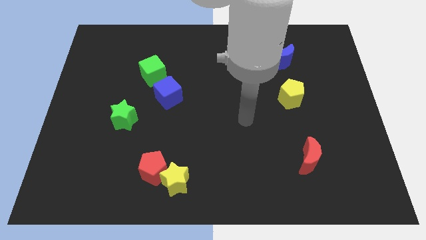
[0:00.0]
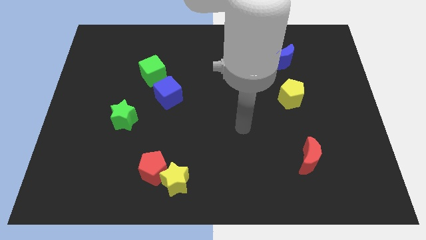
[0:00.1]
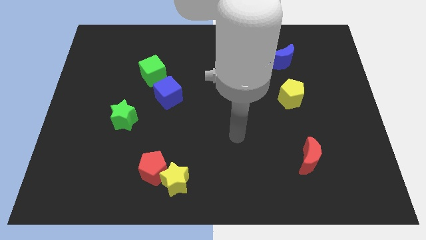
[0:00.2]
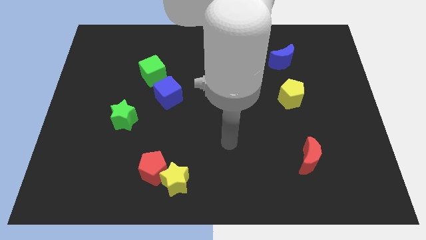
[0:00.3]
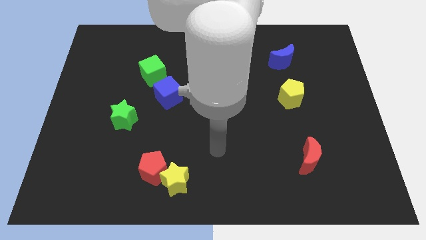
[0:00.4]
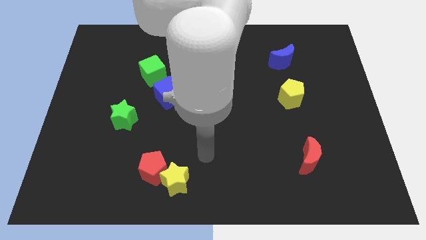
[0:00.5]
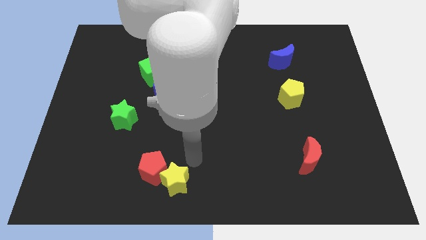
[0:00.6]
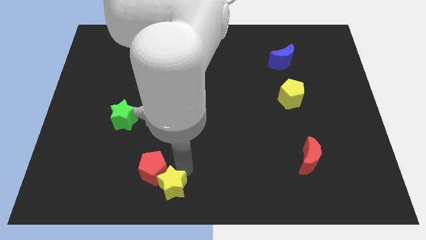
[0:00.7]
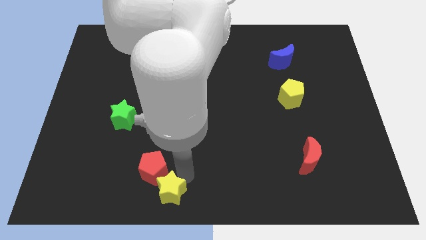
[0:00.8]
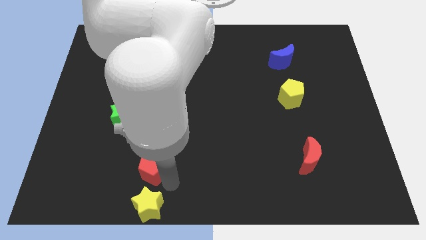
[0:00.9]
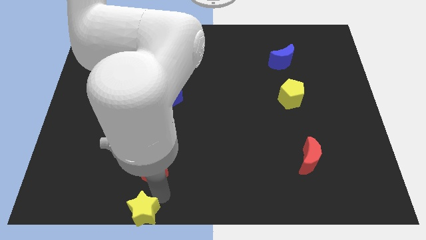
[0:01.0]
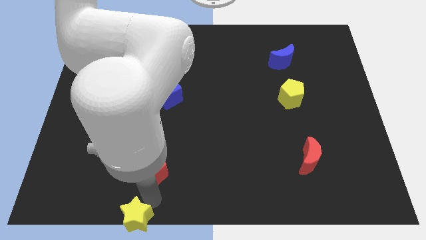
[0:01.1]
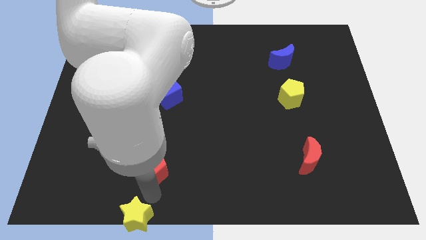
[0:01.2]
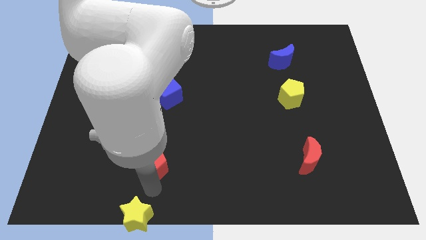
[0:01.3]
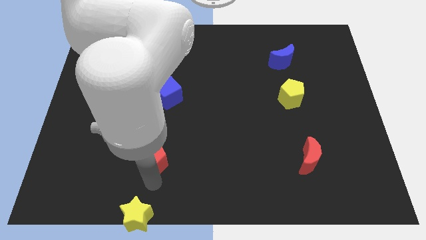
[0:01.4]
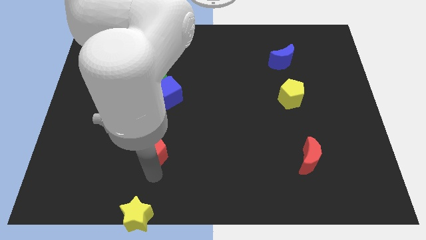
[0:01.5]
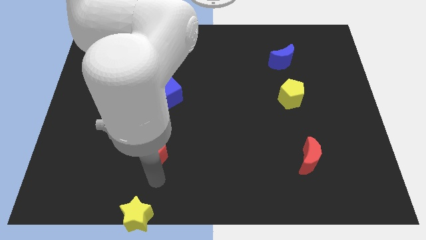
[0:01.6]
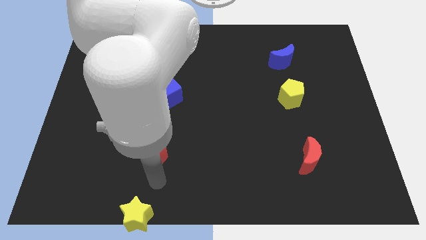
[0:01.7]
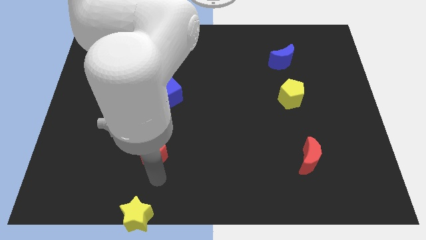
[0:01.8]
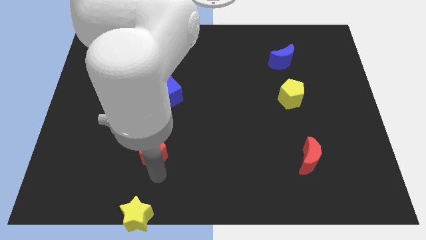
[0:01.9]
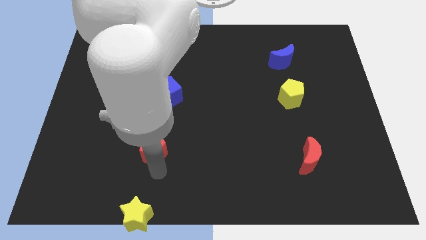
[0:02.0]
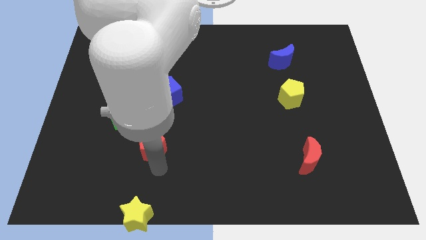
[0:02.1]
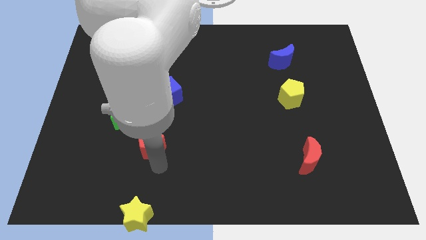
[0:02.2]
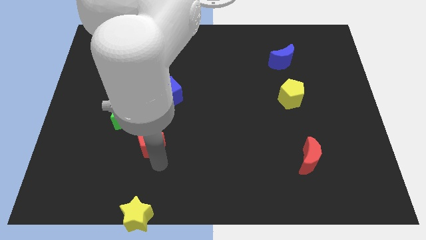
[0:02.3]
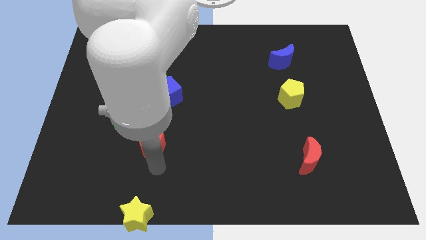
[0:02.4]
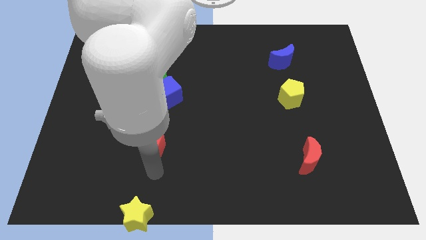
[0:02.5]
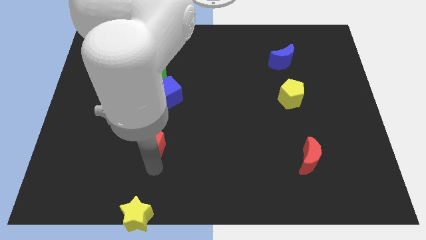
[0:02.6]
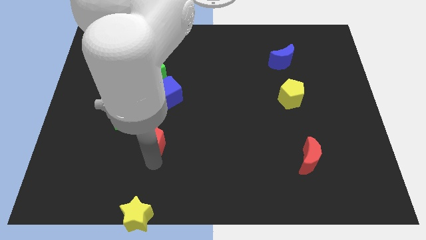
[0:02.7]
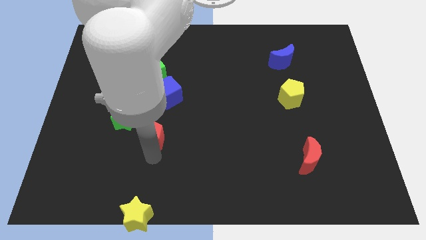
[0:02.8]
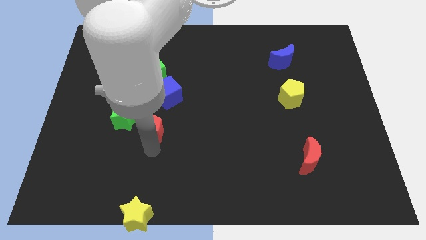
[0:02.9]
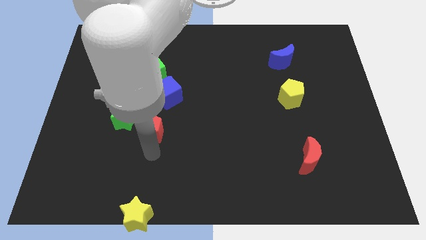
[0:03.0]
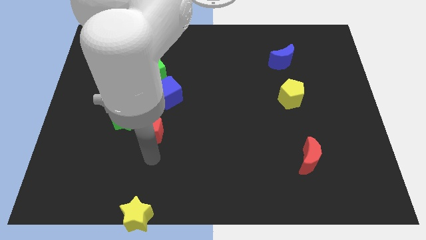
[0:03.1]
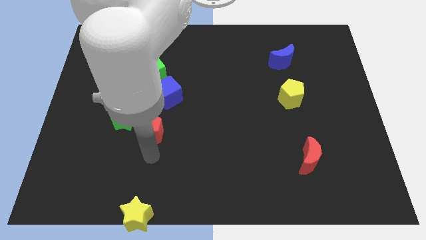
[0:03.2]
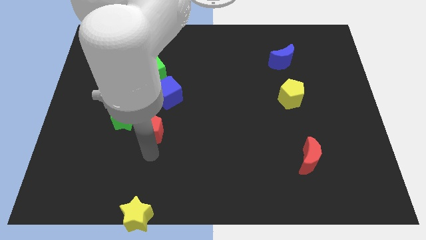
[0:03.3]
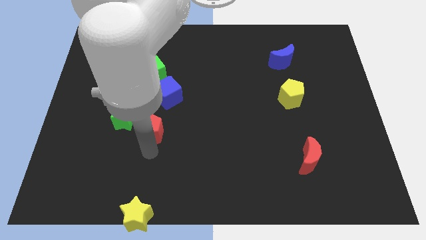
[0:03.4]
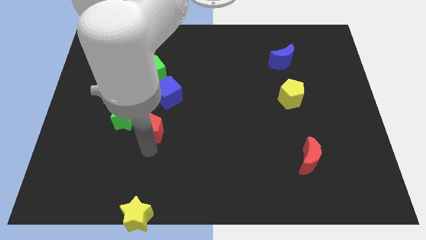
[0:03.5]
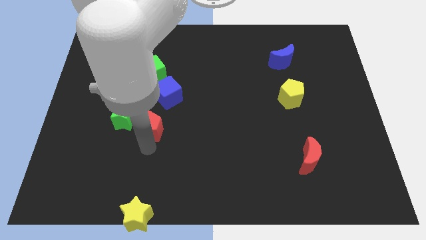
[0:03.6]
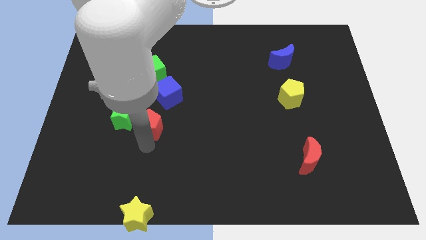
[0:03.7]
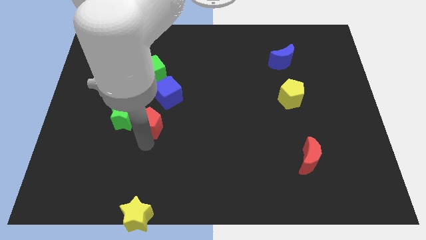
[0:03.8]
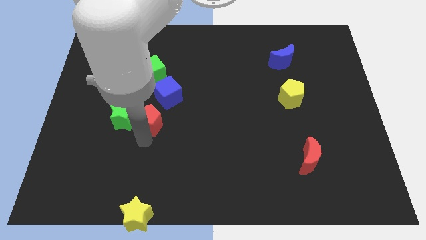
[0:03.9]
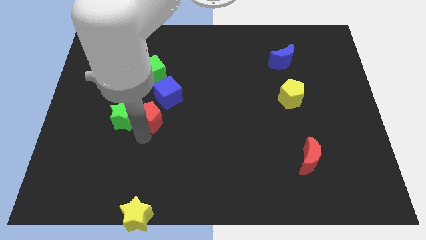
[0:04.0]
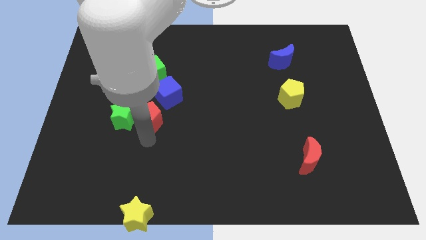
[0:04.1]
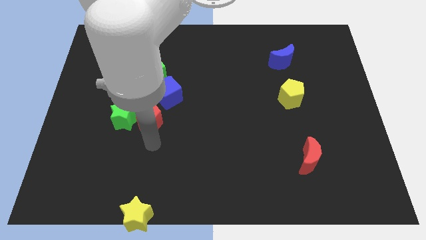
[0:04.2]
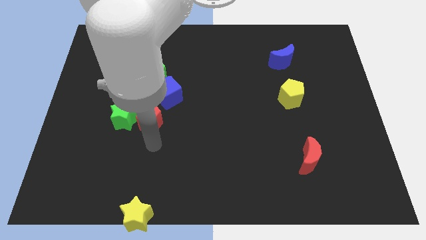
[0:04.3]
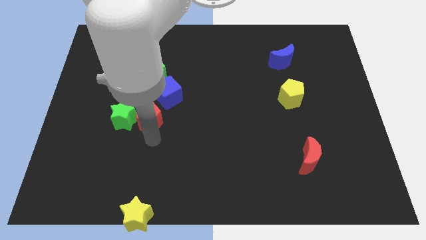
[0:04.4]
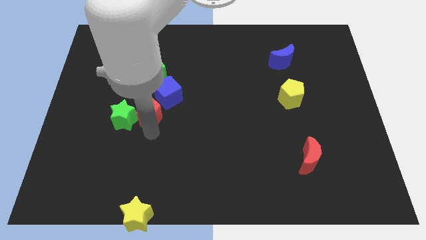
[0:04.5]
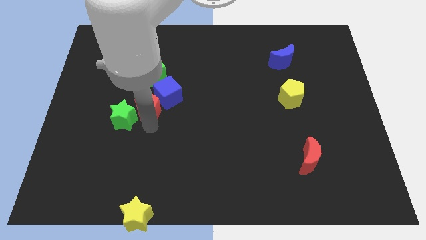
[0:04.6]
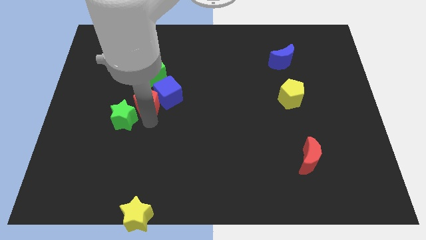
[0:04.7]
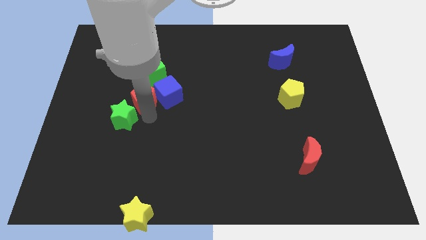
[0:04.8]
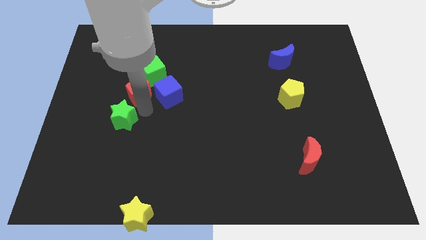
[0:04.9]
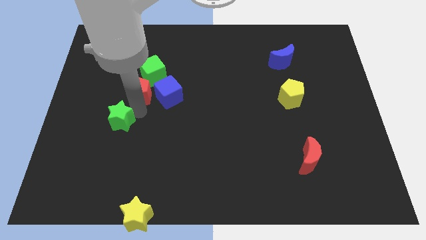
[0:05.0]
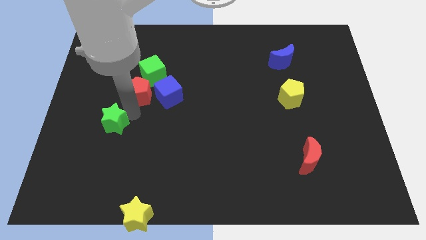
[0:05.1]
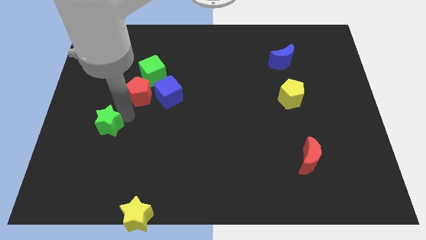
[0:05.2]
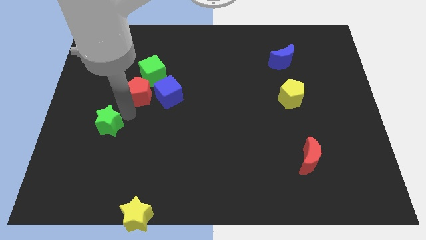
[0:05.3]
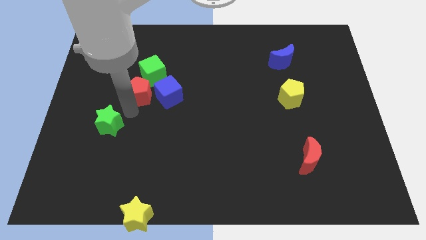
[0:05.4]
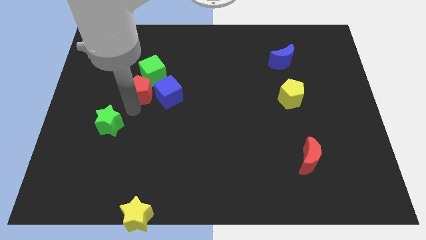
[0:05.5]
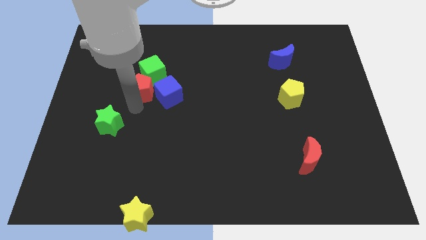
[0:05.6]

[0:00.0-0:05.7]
put the red pentagon towards the green cube

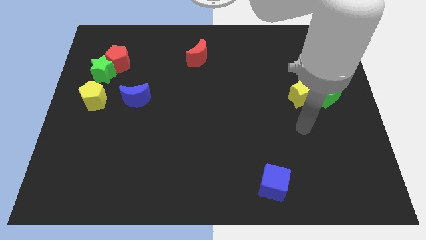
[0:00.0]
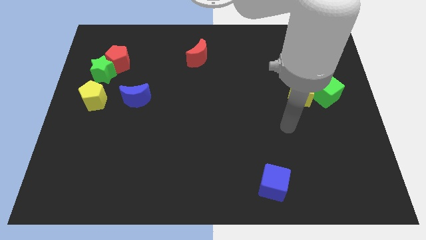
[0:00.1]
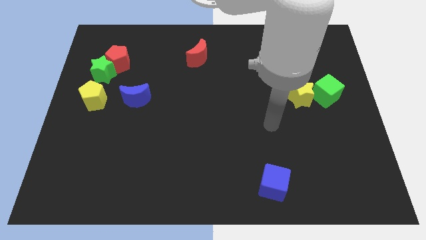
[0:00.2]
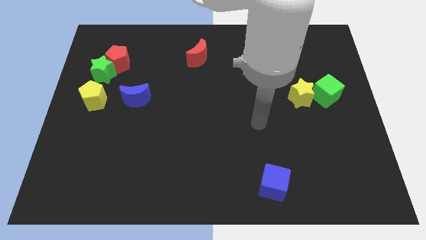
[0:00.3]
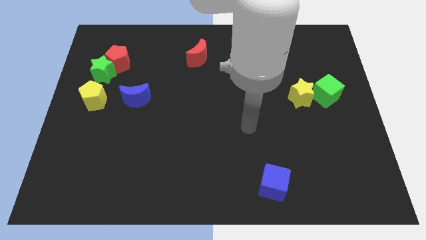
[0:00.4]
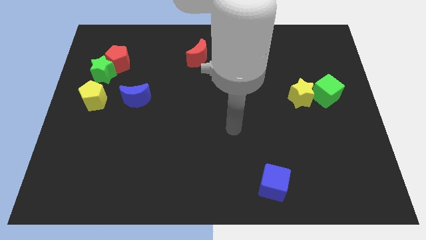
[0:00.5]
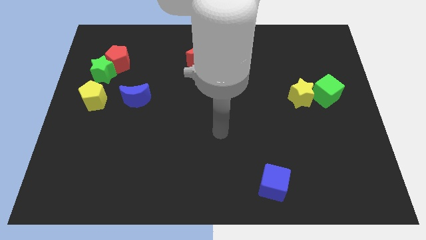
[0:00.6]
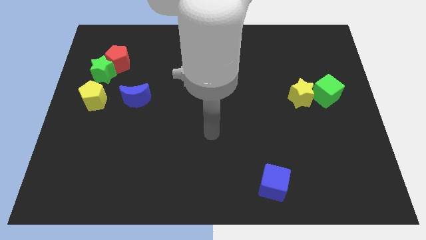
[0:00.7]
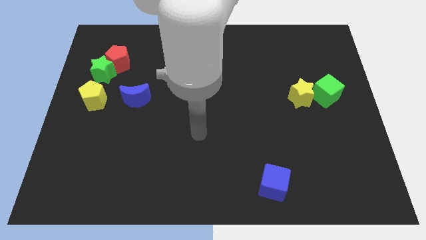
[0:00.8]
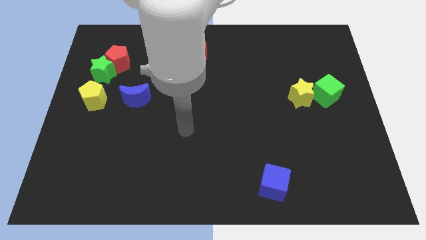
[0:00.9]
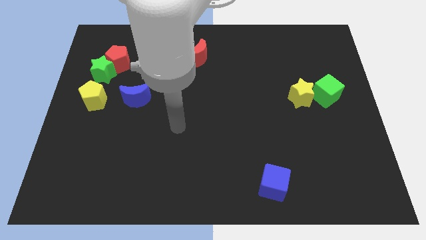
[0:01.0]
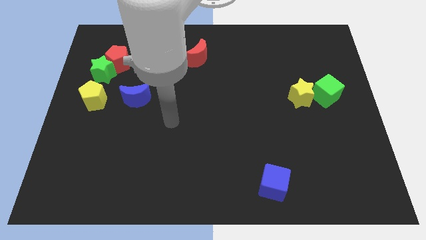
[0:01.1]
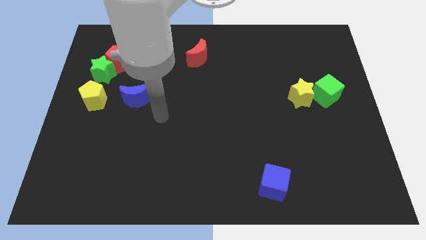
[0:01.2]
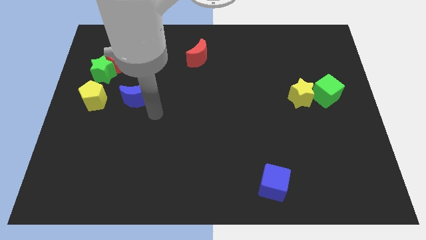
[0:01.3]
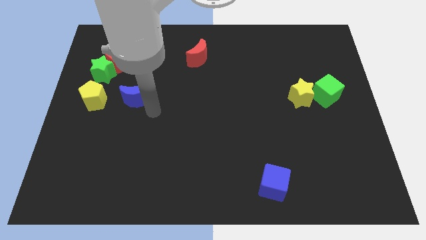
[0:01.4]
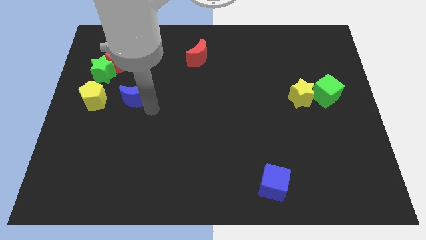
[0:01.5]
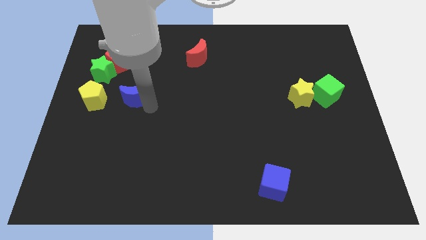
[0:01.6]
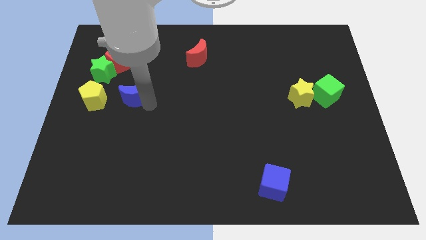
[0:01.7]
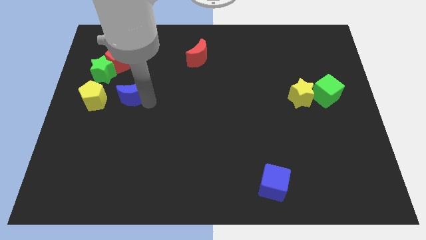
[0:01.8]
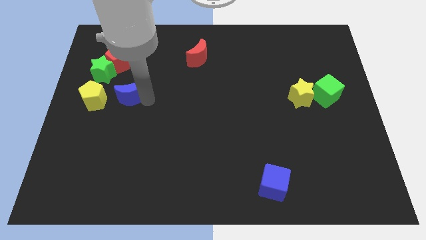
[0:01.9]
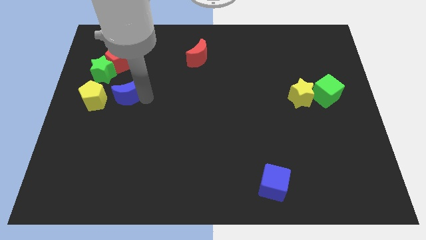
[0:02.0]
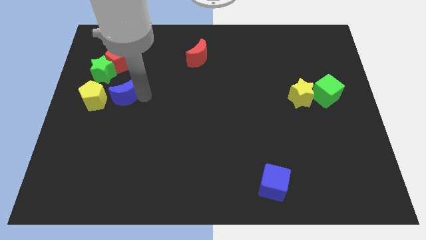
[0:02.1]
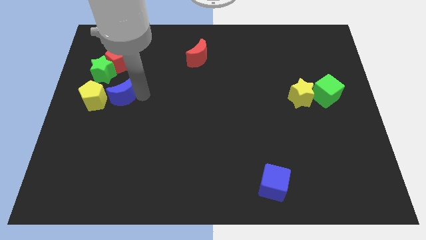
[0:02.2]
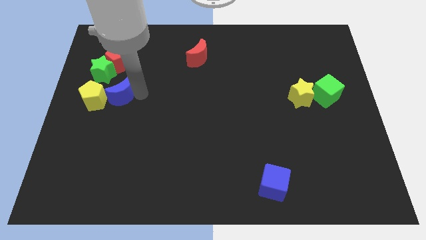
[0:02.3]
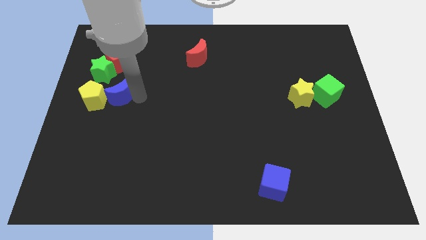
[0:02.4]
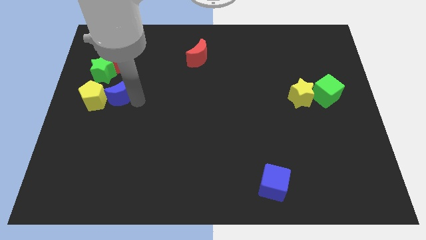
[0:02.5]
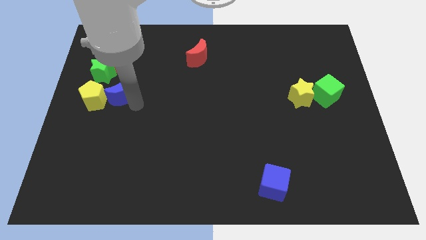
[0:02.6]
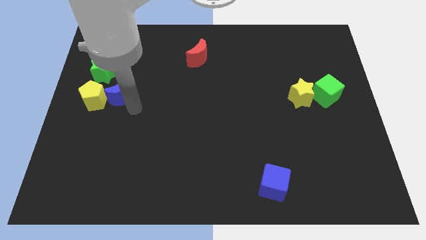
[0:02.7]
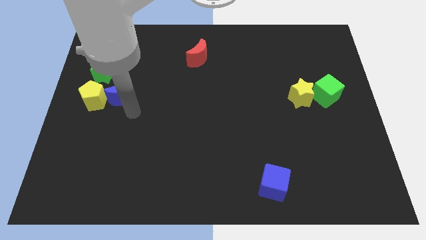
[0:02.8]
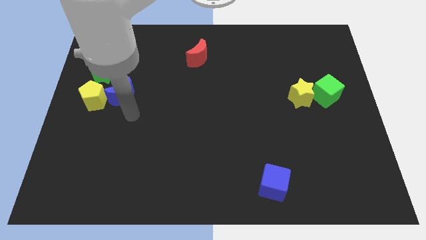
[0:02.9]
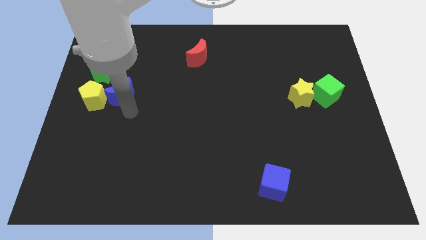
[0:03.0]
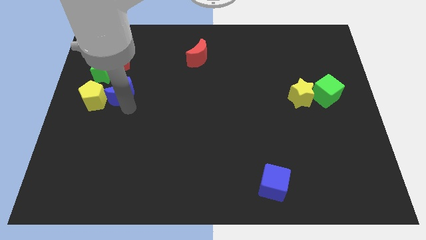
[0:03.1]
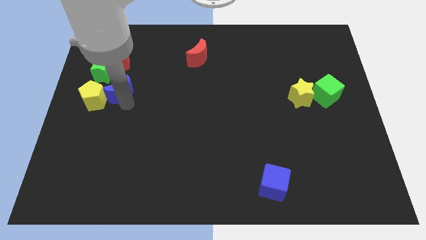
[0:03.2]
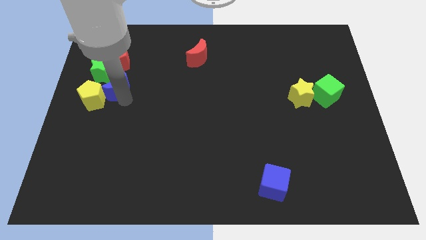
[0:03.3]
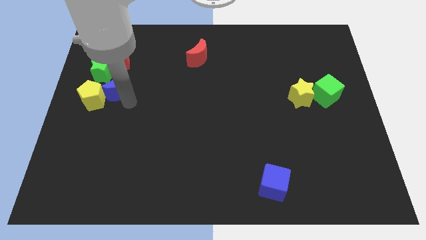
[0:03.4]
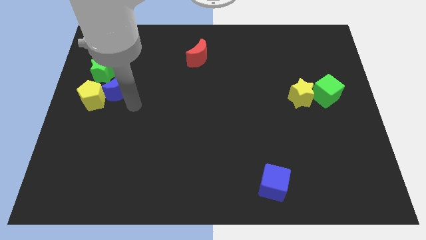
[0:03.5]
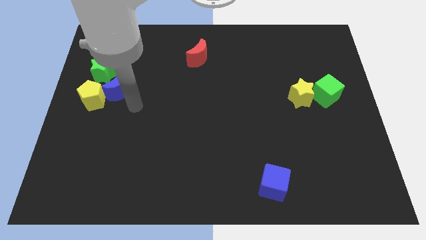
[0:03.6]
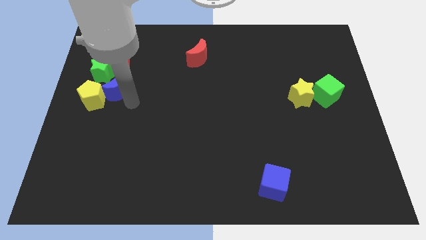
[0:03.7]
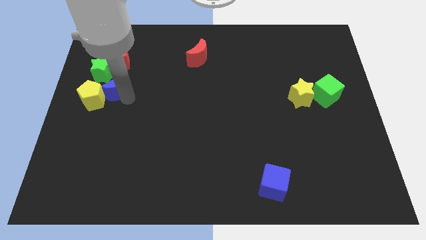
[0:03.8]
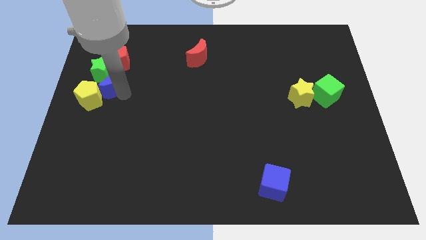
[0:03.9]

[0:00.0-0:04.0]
slide the blue moon towards the green star
